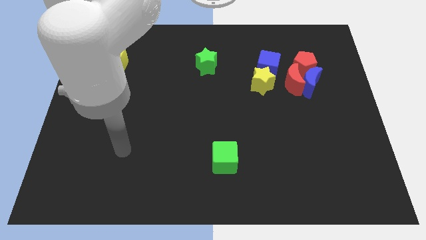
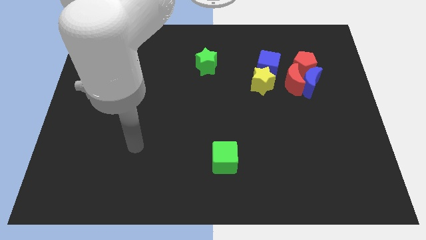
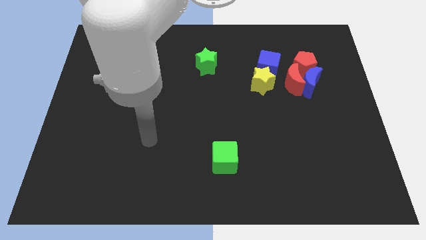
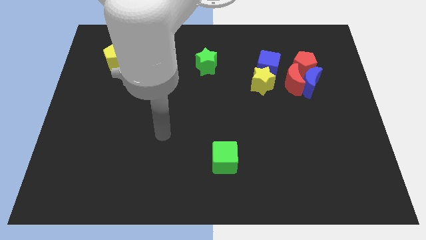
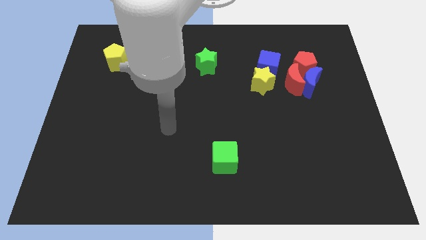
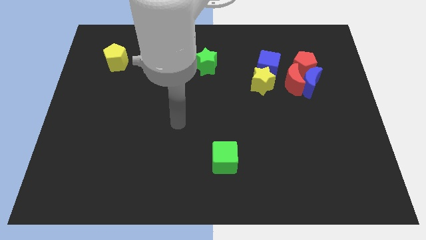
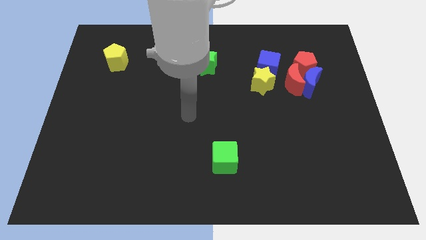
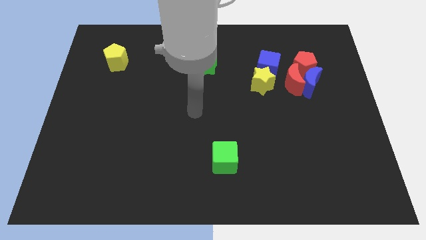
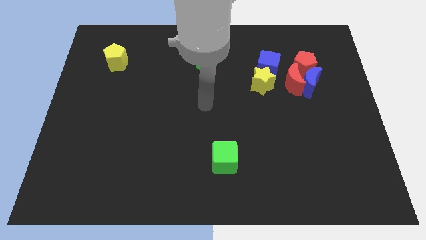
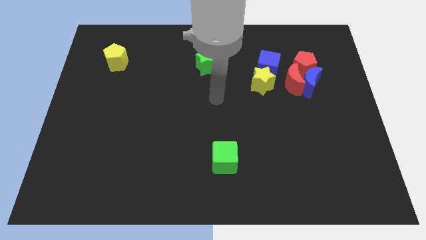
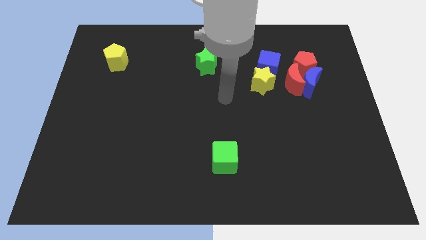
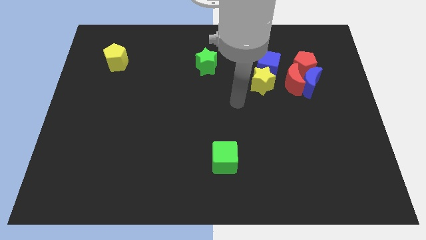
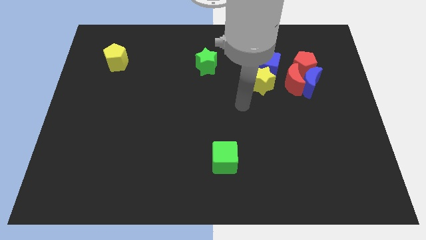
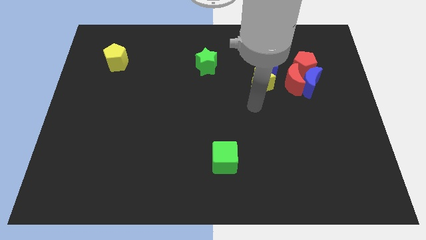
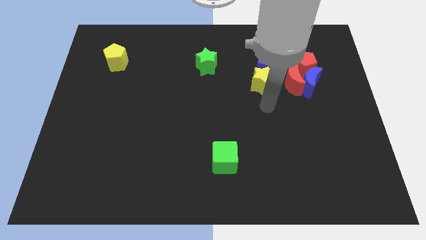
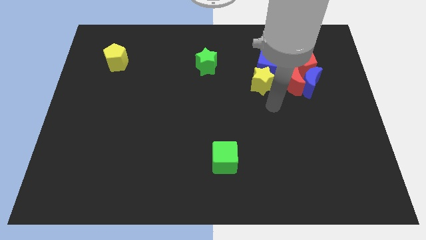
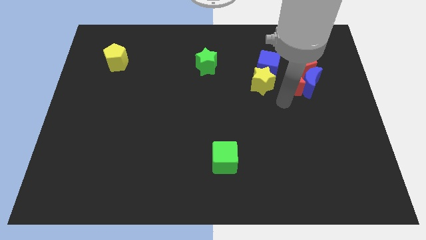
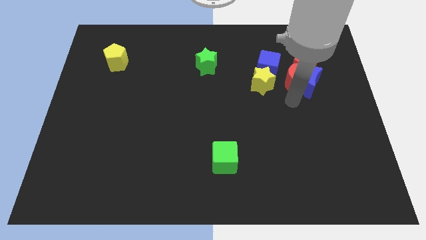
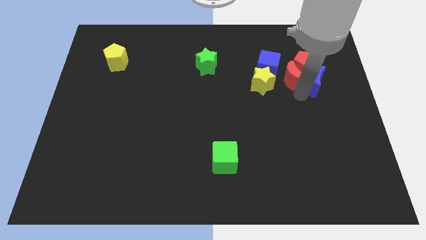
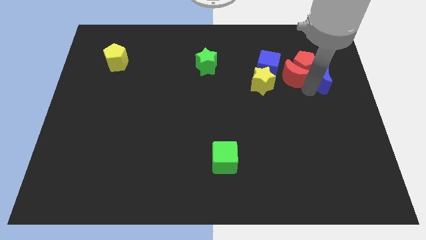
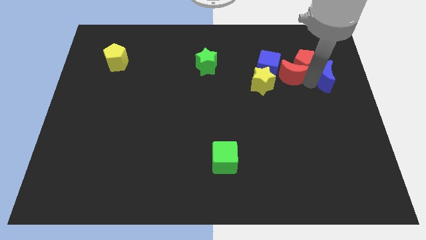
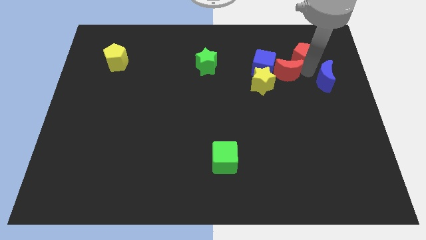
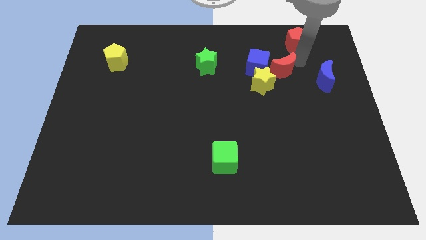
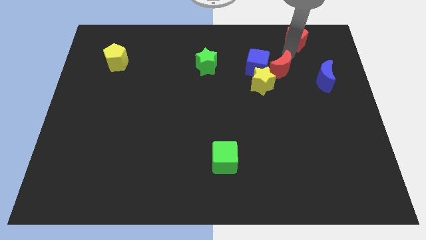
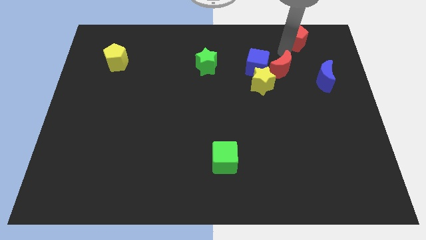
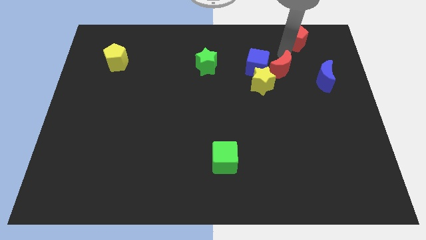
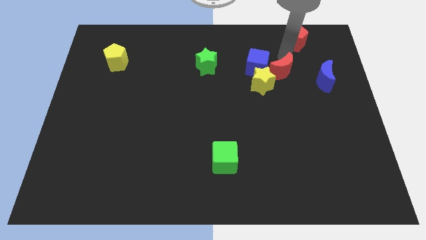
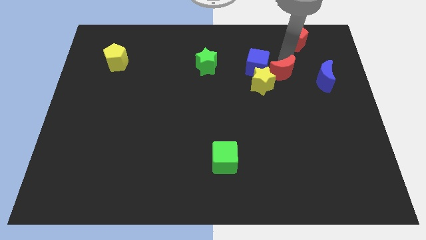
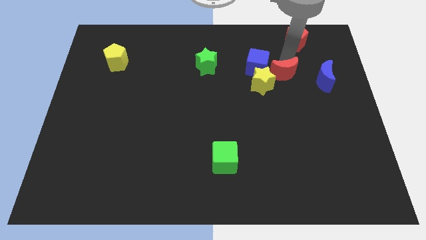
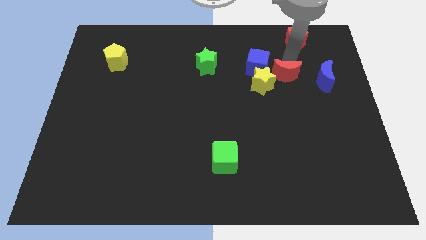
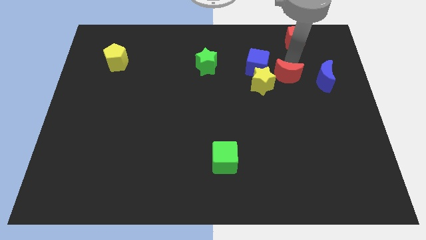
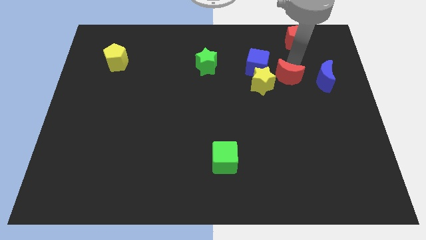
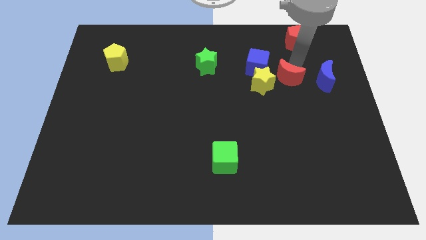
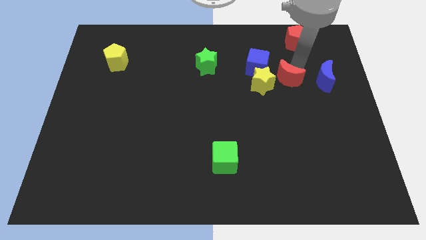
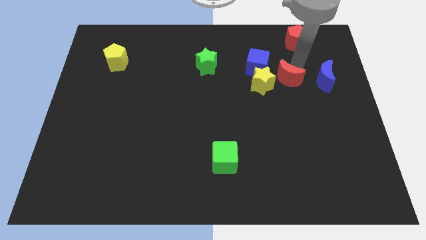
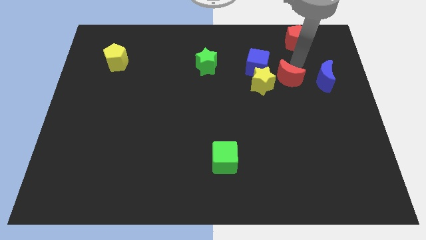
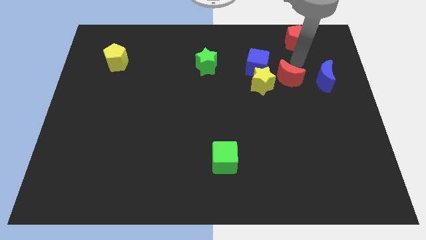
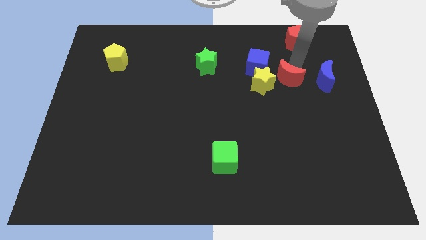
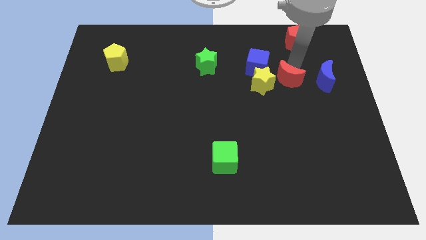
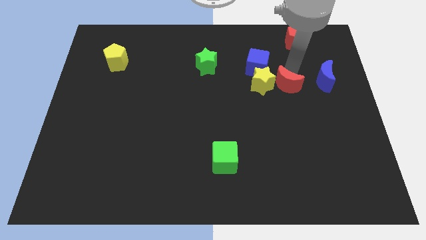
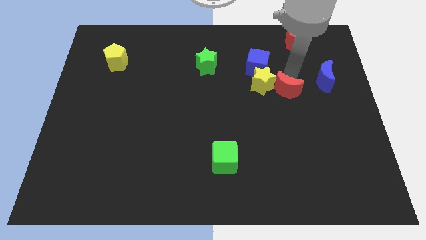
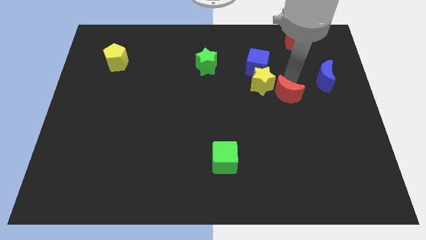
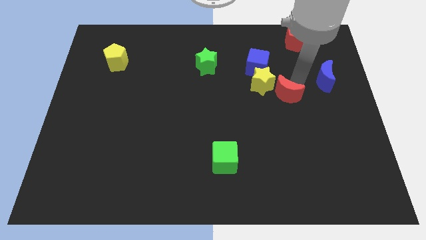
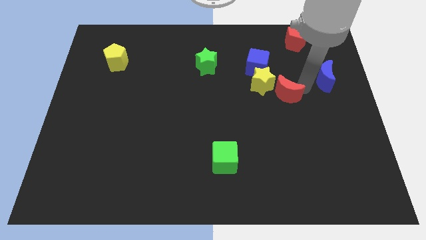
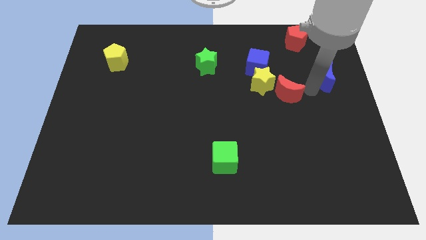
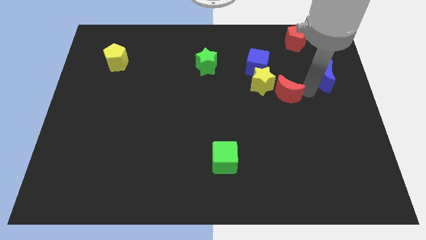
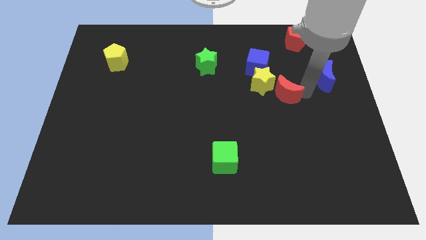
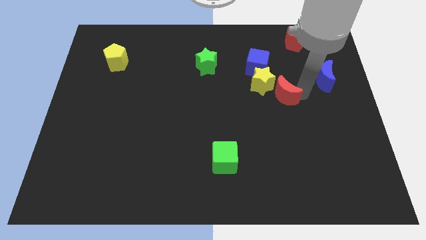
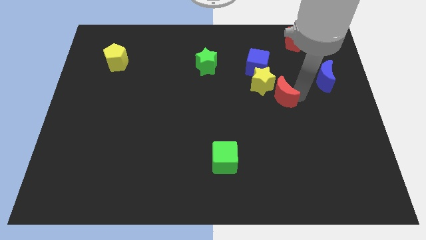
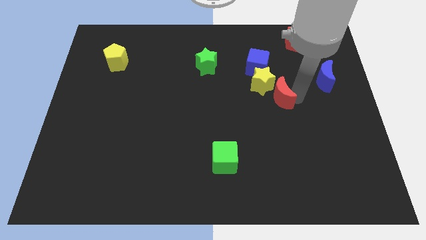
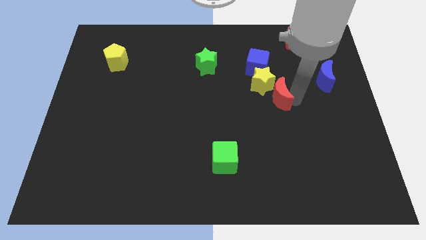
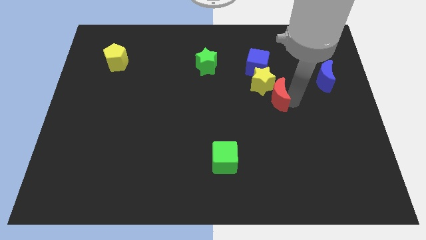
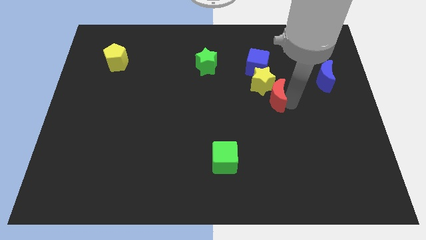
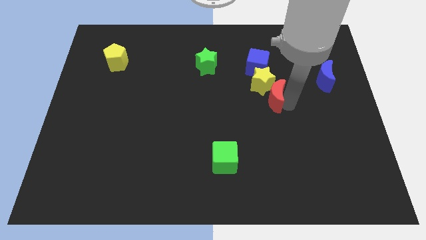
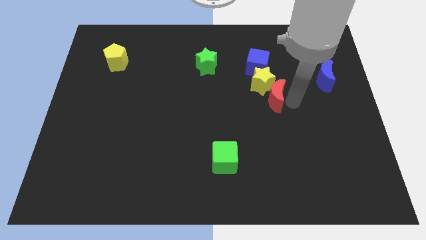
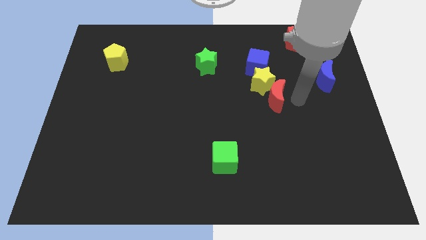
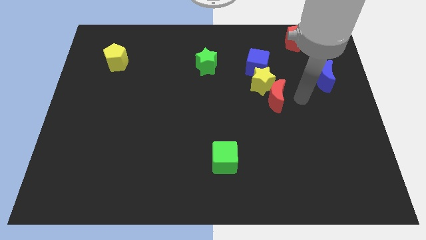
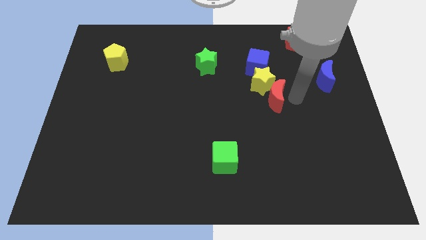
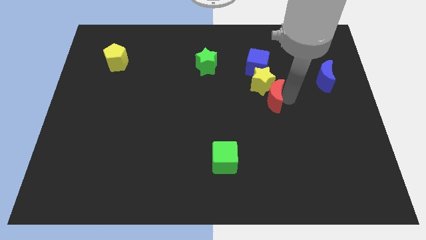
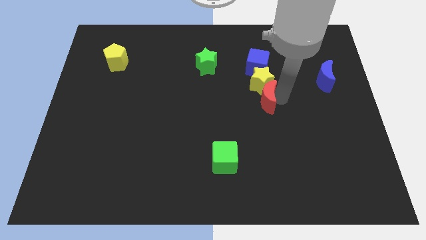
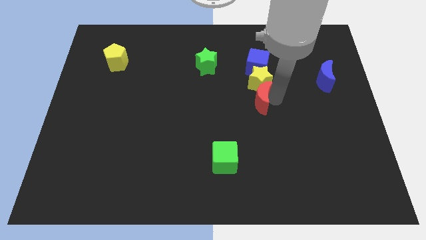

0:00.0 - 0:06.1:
put the red moon to the center of the board
